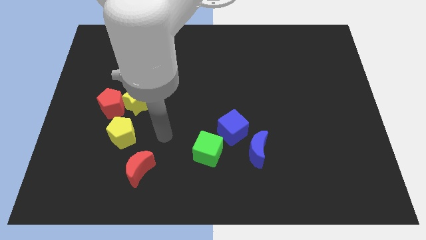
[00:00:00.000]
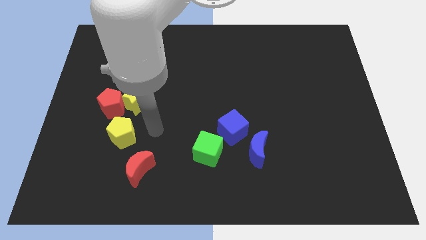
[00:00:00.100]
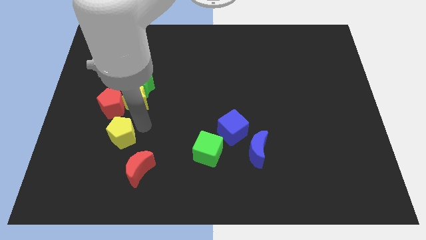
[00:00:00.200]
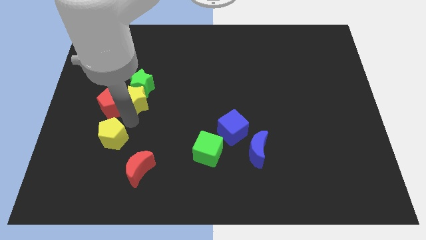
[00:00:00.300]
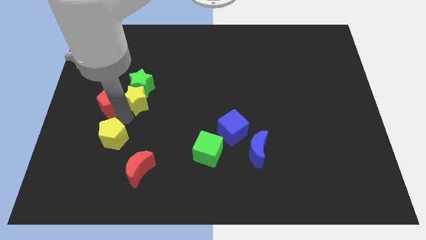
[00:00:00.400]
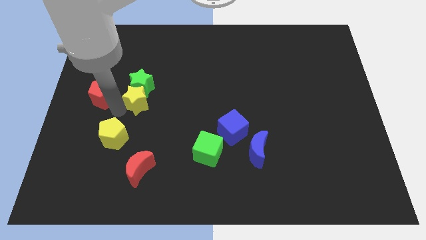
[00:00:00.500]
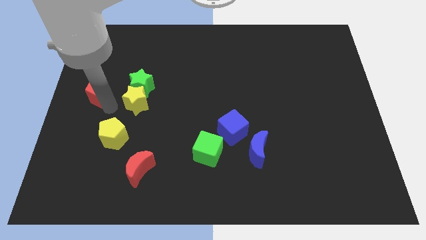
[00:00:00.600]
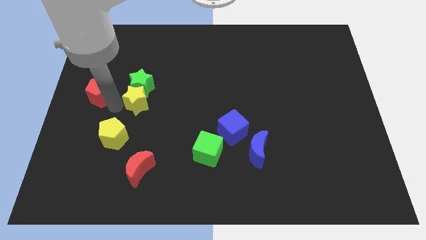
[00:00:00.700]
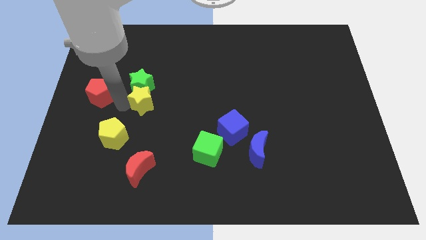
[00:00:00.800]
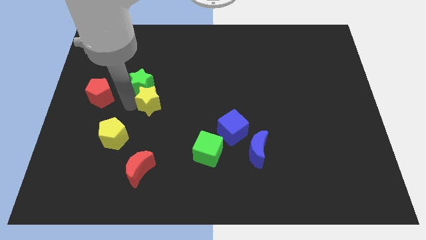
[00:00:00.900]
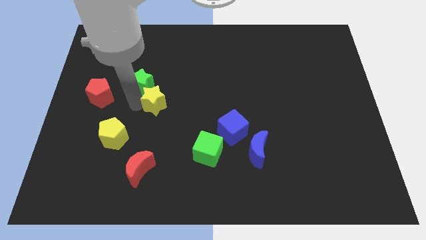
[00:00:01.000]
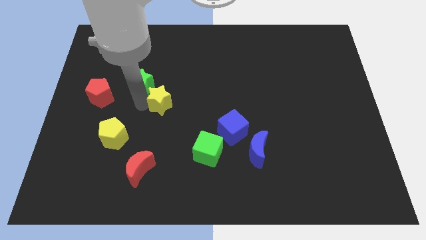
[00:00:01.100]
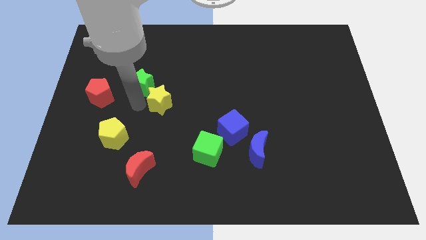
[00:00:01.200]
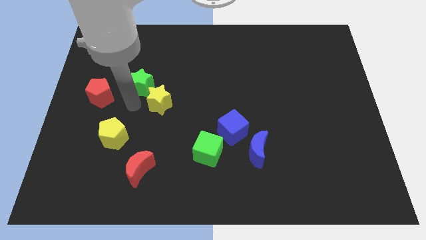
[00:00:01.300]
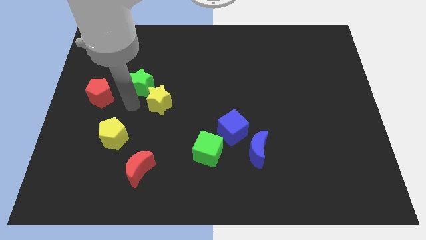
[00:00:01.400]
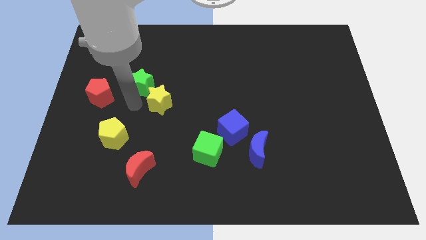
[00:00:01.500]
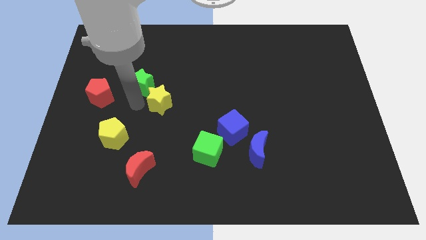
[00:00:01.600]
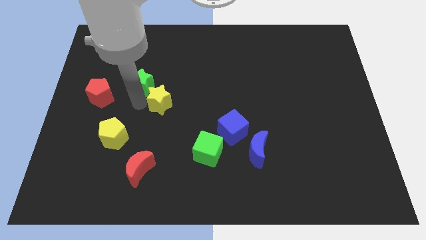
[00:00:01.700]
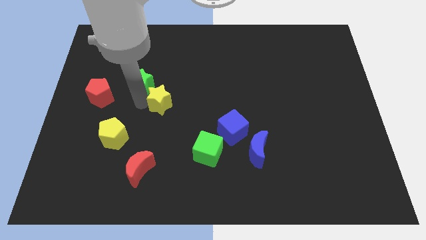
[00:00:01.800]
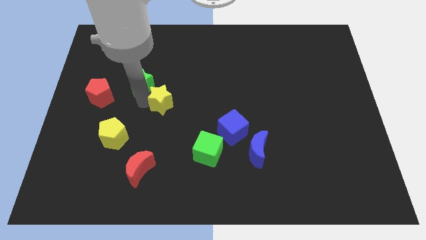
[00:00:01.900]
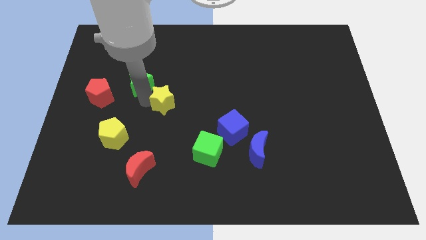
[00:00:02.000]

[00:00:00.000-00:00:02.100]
move the yellow star away from the clump

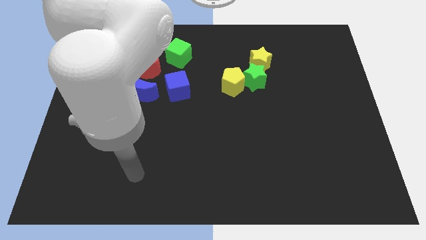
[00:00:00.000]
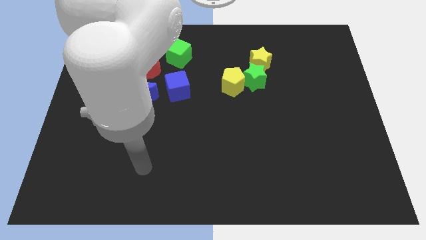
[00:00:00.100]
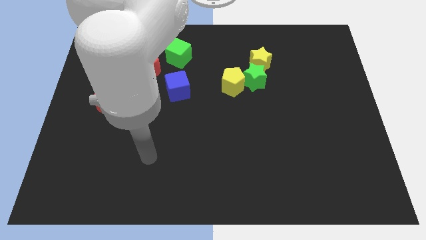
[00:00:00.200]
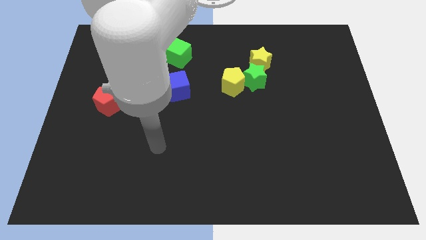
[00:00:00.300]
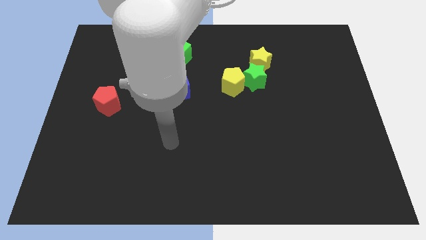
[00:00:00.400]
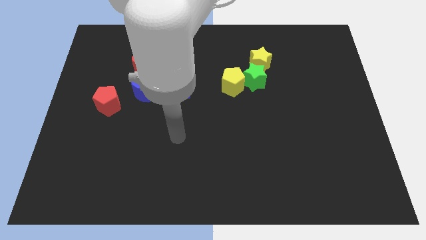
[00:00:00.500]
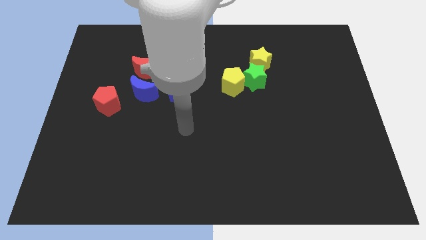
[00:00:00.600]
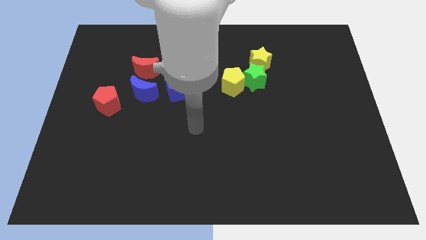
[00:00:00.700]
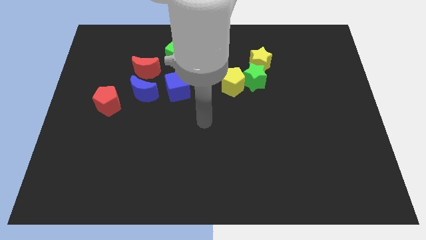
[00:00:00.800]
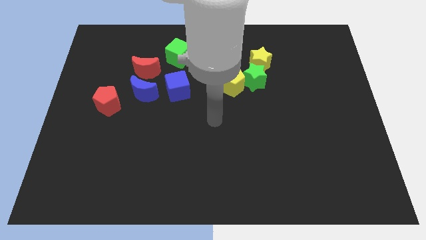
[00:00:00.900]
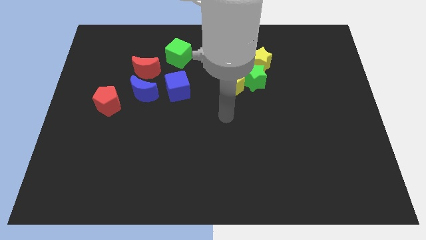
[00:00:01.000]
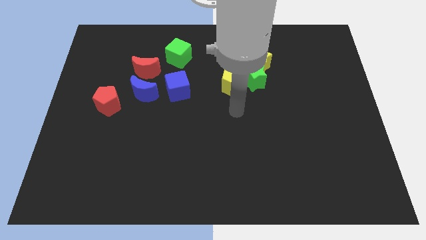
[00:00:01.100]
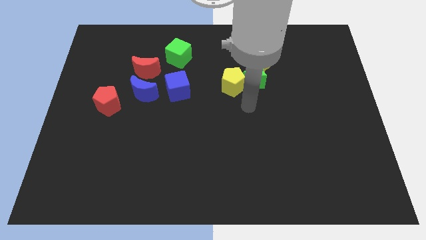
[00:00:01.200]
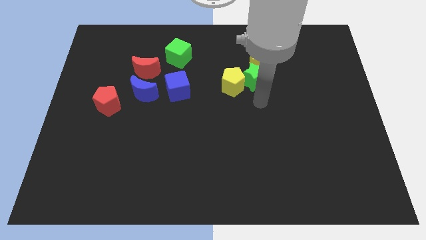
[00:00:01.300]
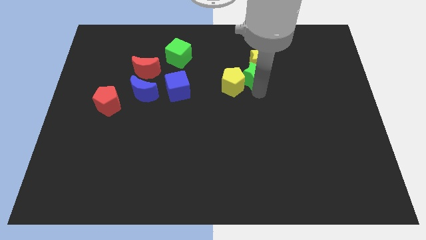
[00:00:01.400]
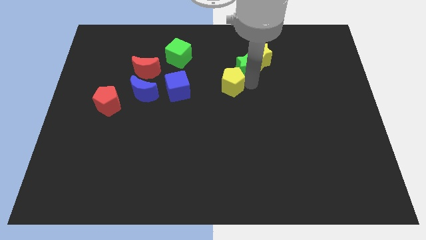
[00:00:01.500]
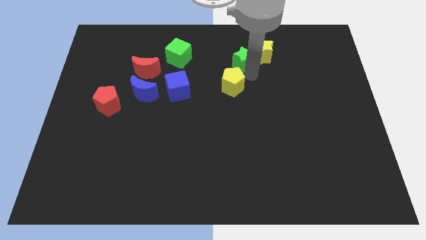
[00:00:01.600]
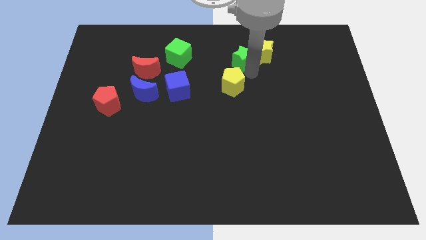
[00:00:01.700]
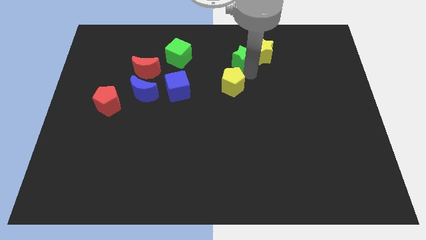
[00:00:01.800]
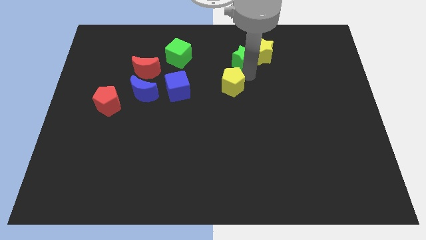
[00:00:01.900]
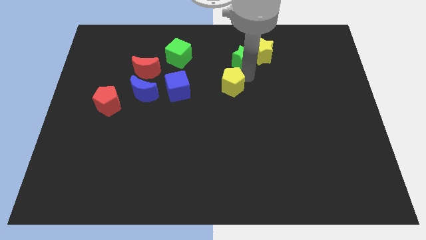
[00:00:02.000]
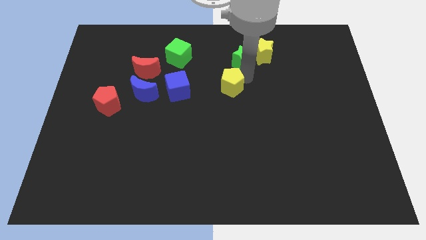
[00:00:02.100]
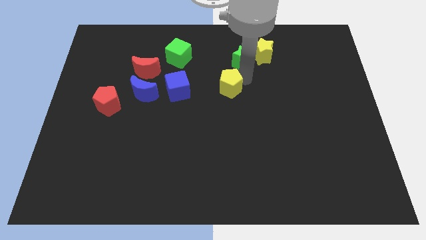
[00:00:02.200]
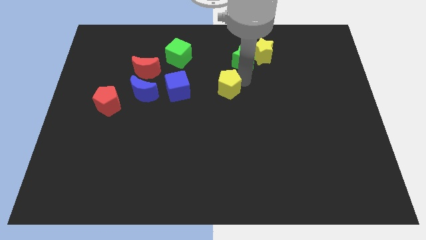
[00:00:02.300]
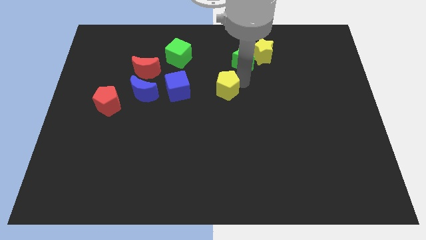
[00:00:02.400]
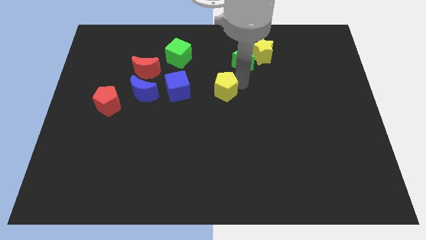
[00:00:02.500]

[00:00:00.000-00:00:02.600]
pull the yellow pentagon apart from the green star

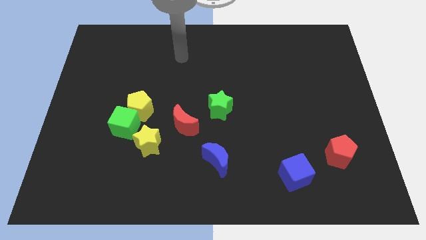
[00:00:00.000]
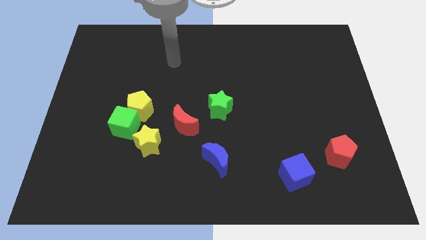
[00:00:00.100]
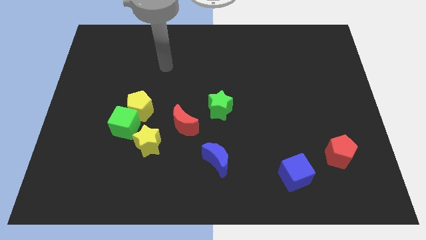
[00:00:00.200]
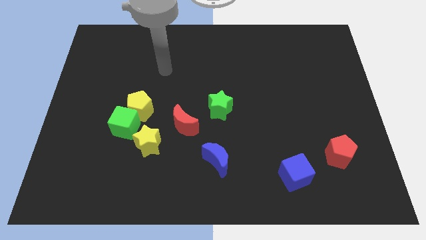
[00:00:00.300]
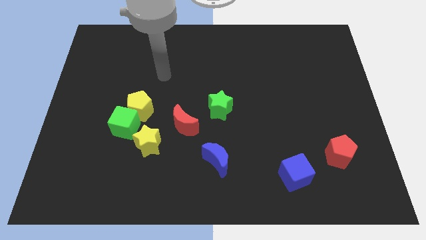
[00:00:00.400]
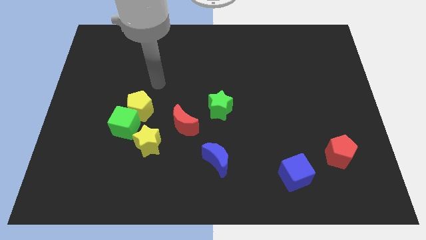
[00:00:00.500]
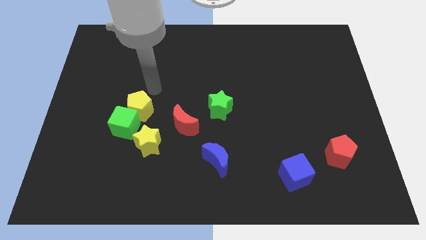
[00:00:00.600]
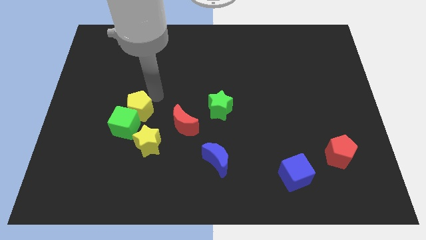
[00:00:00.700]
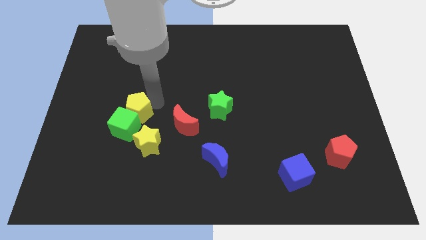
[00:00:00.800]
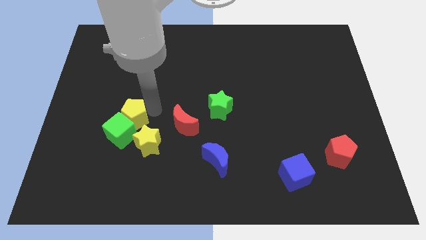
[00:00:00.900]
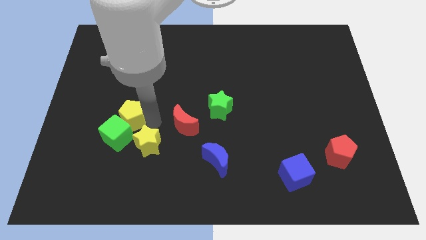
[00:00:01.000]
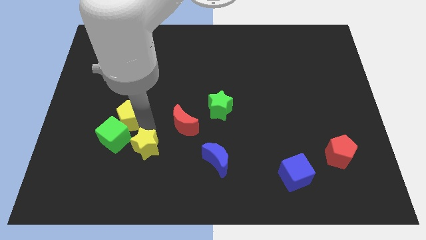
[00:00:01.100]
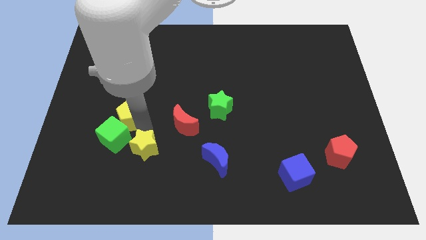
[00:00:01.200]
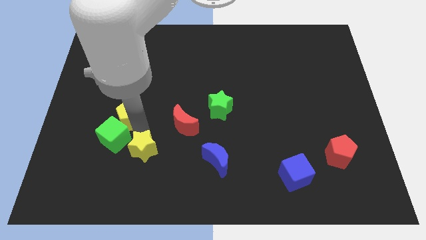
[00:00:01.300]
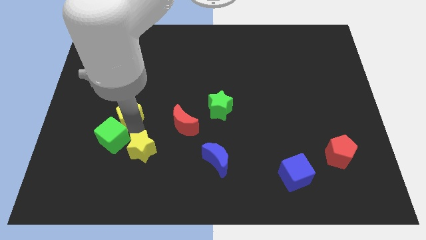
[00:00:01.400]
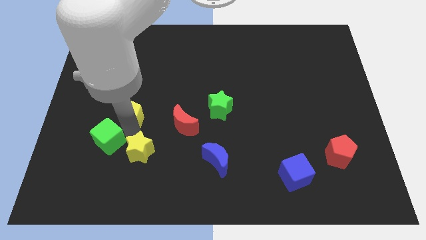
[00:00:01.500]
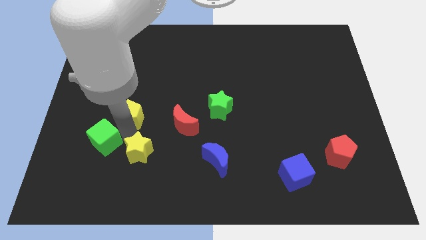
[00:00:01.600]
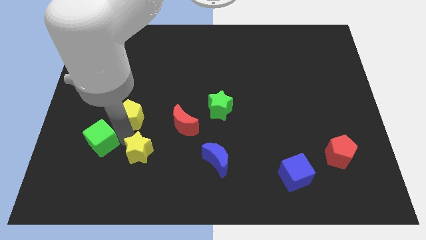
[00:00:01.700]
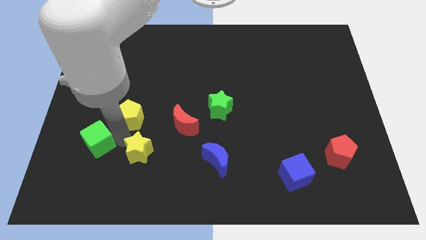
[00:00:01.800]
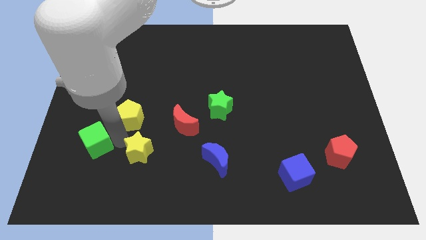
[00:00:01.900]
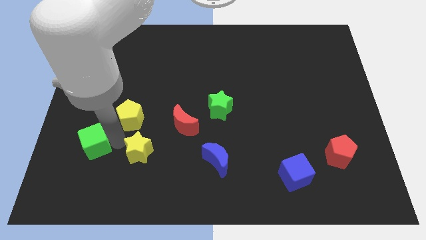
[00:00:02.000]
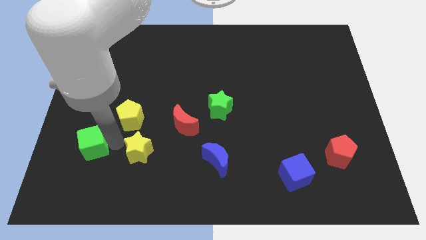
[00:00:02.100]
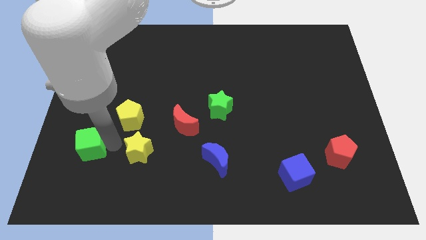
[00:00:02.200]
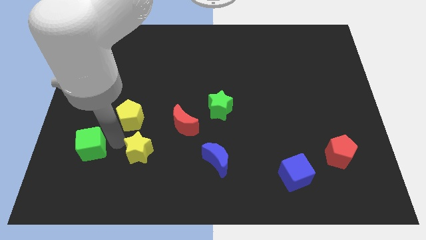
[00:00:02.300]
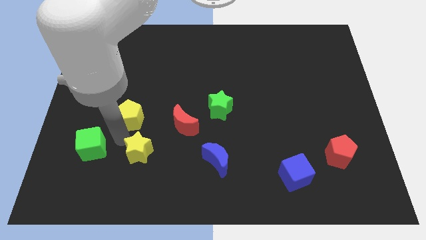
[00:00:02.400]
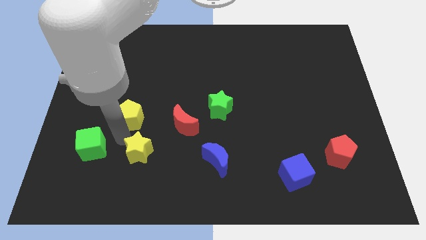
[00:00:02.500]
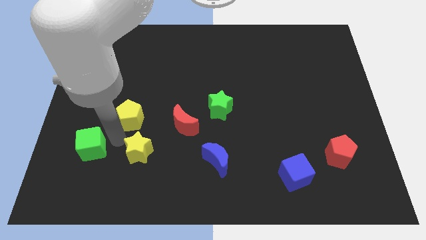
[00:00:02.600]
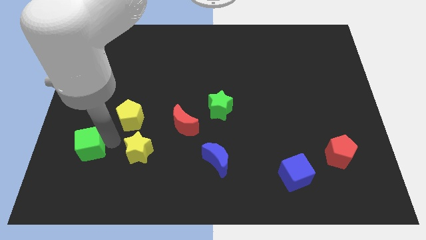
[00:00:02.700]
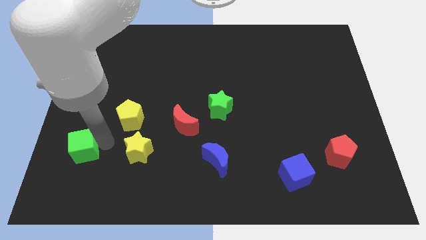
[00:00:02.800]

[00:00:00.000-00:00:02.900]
pull the green cube apart from the yellow pentagon and yellow star

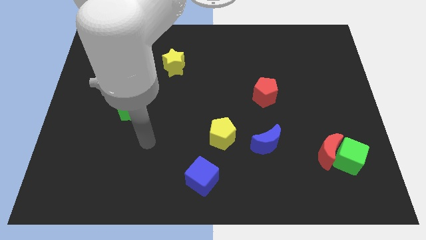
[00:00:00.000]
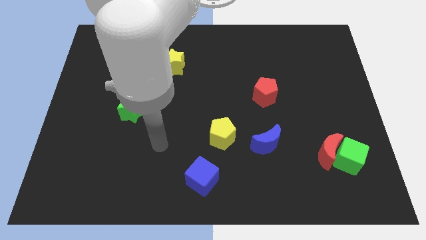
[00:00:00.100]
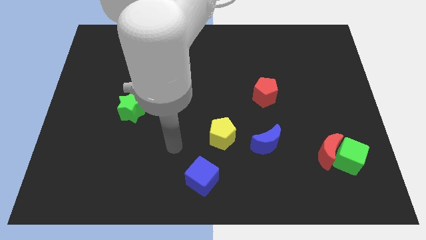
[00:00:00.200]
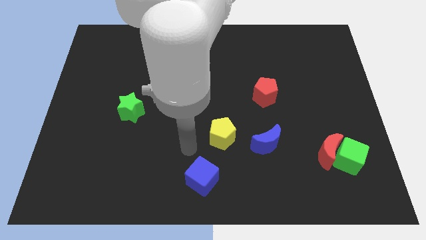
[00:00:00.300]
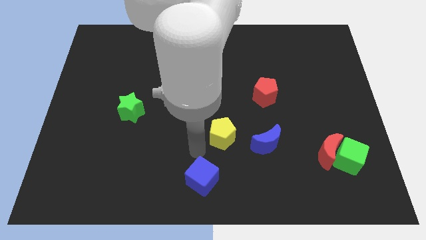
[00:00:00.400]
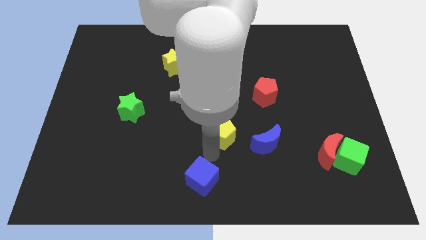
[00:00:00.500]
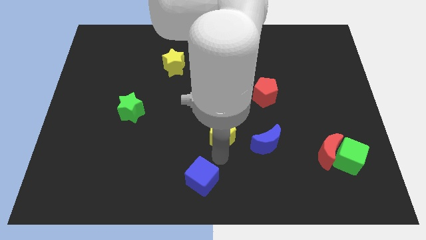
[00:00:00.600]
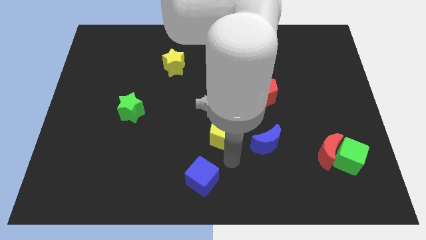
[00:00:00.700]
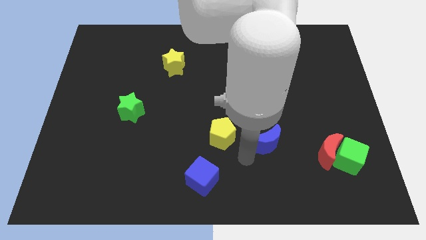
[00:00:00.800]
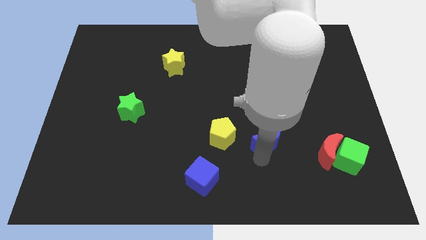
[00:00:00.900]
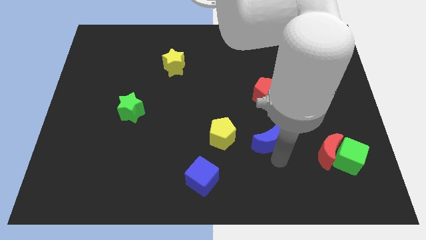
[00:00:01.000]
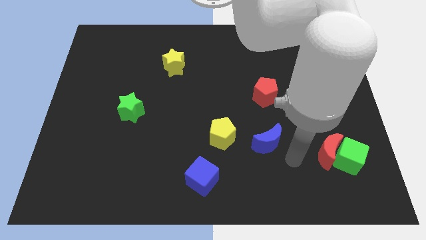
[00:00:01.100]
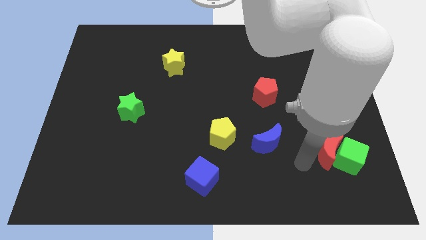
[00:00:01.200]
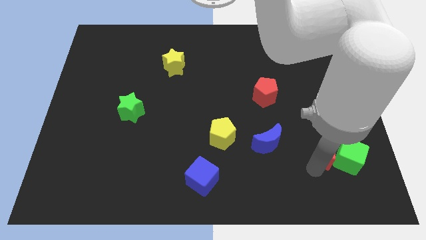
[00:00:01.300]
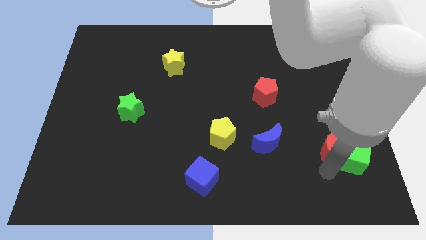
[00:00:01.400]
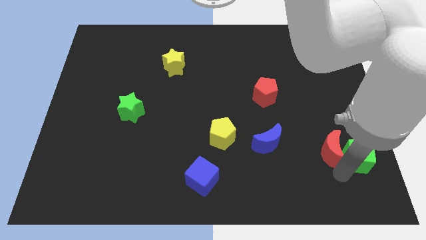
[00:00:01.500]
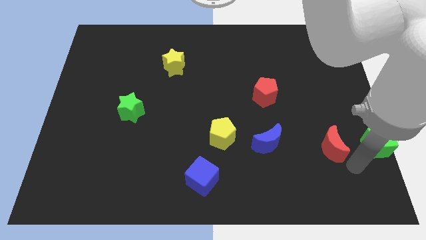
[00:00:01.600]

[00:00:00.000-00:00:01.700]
separate the red moon from the green cube
